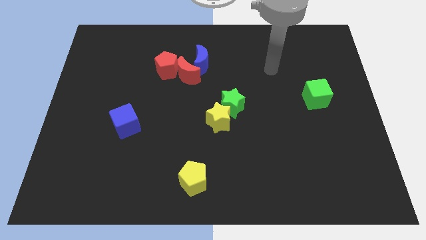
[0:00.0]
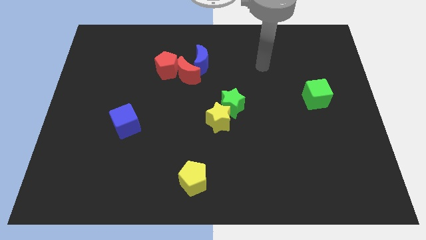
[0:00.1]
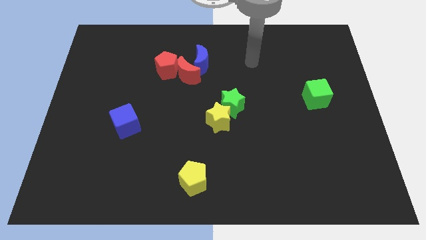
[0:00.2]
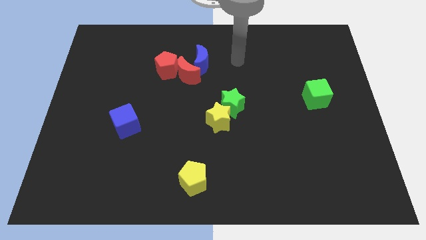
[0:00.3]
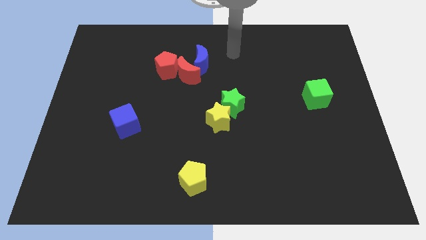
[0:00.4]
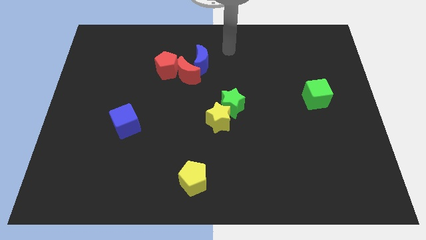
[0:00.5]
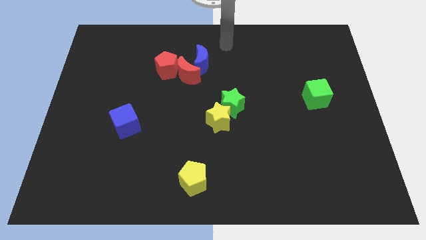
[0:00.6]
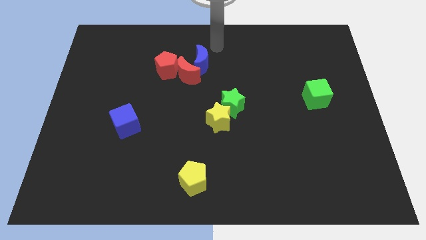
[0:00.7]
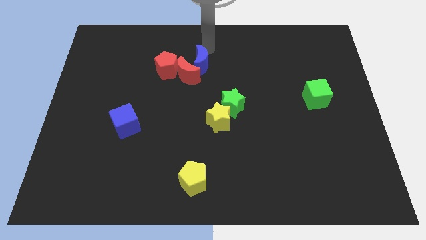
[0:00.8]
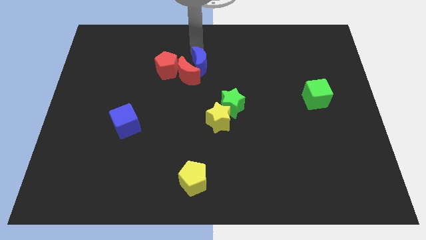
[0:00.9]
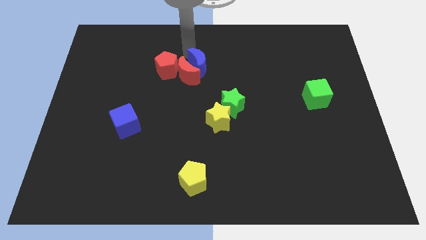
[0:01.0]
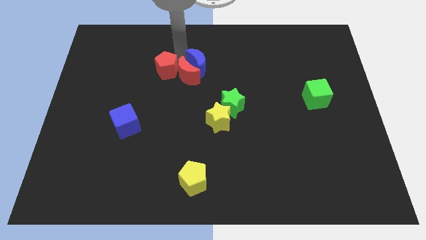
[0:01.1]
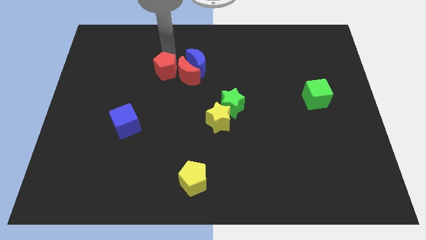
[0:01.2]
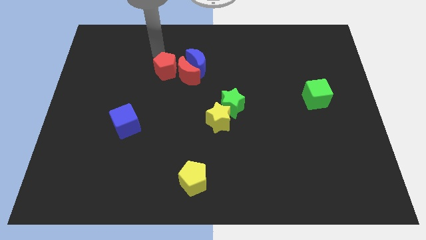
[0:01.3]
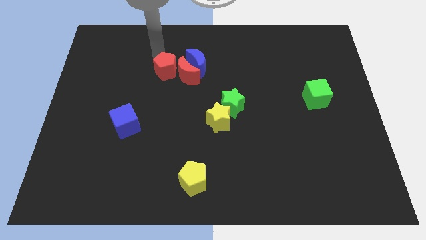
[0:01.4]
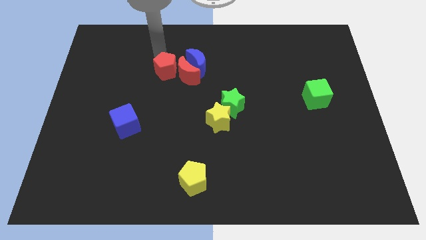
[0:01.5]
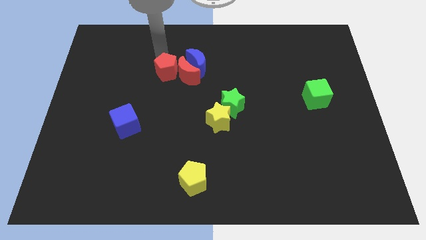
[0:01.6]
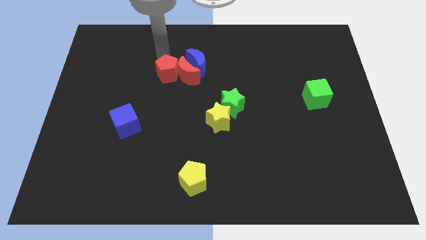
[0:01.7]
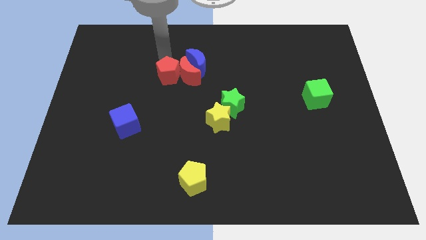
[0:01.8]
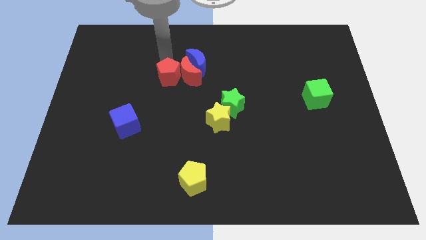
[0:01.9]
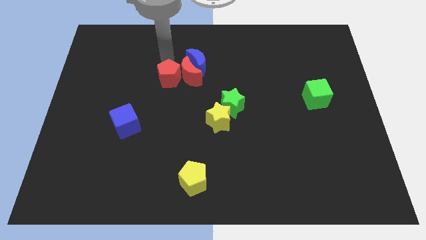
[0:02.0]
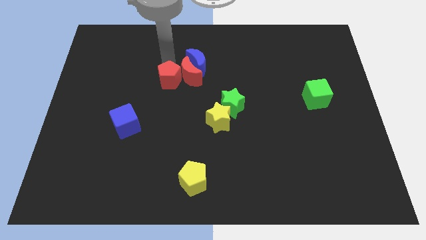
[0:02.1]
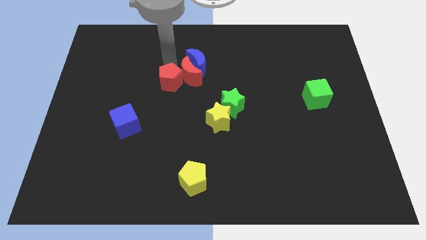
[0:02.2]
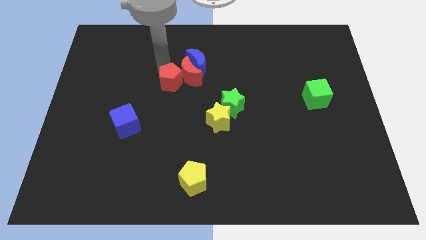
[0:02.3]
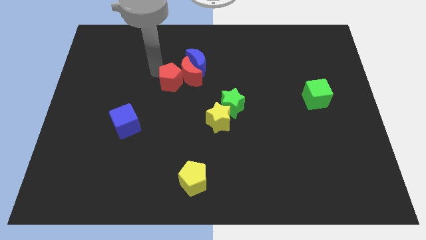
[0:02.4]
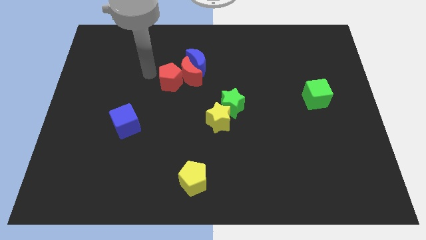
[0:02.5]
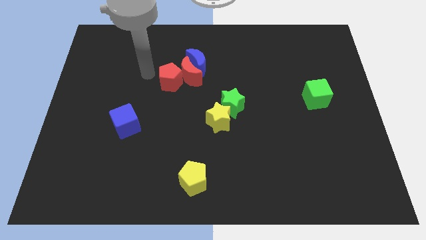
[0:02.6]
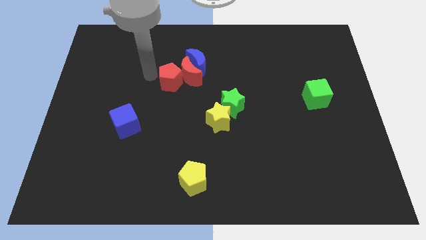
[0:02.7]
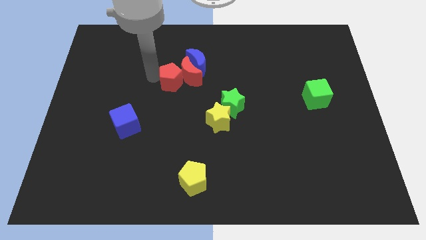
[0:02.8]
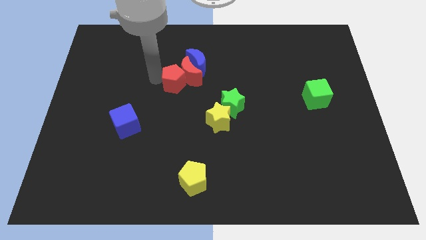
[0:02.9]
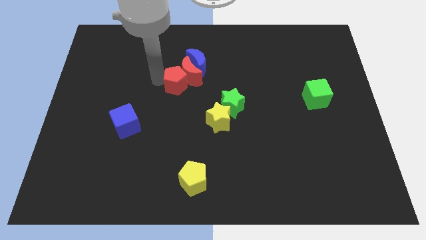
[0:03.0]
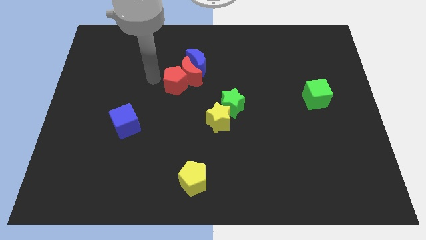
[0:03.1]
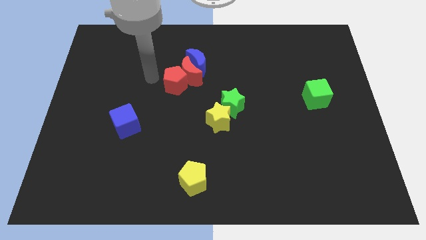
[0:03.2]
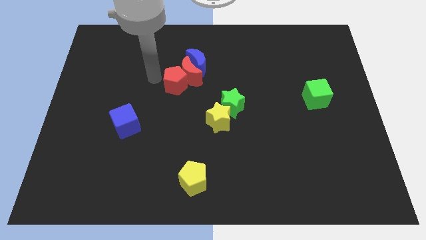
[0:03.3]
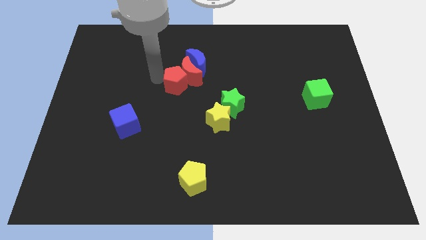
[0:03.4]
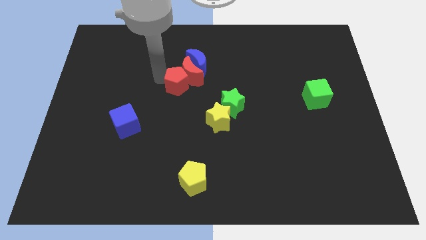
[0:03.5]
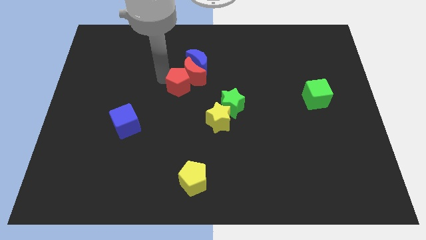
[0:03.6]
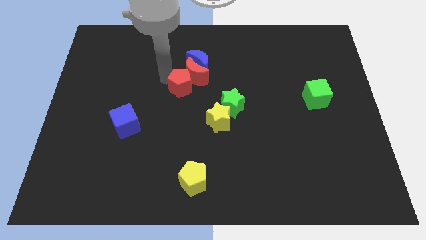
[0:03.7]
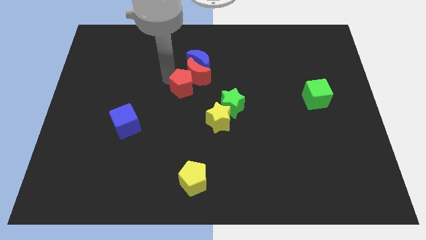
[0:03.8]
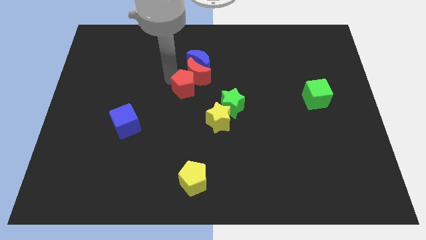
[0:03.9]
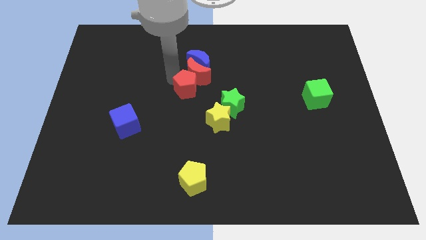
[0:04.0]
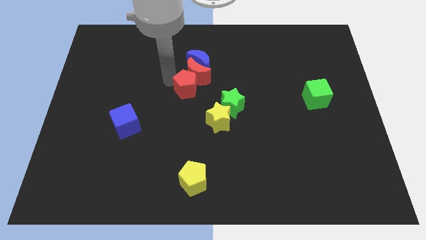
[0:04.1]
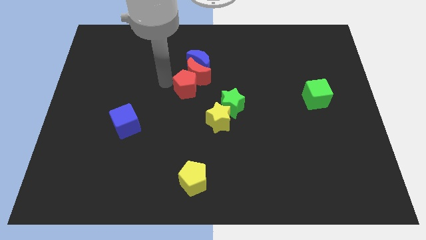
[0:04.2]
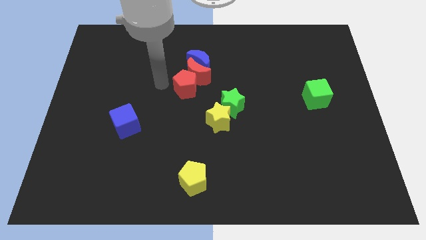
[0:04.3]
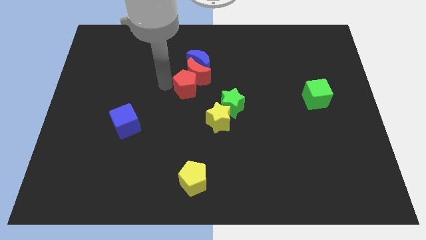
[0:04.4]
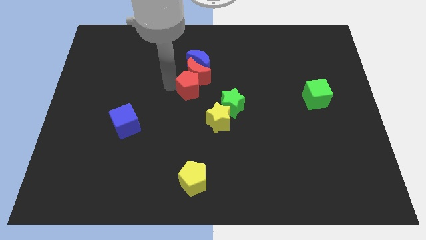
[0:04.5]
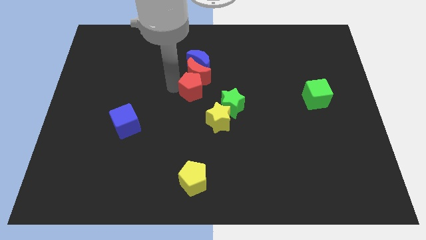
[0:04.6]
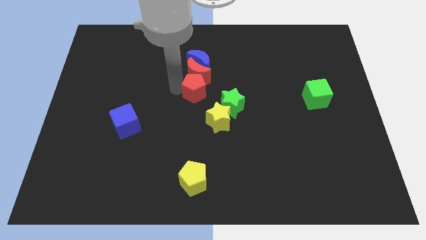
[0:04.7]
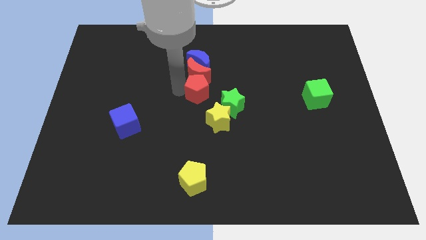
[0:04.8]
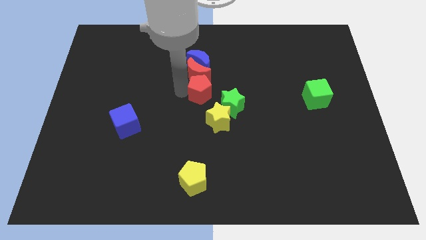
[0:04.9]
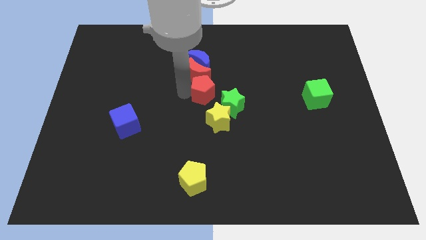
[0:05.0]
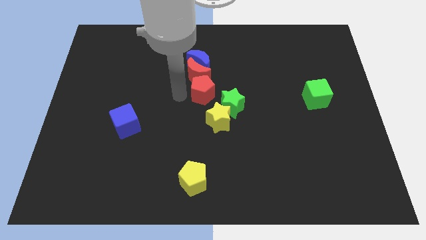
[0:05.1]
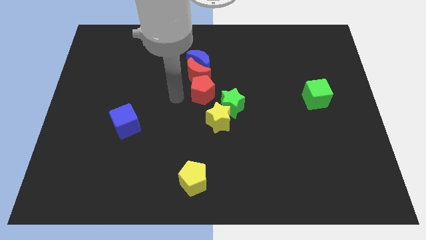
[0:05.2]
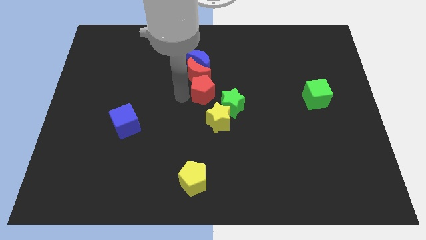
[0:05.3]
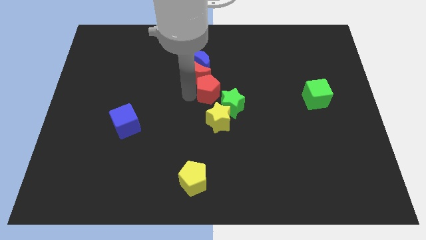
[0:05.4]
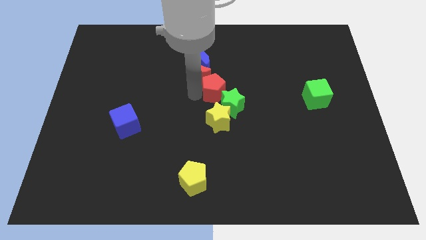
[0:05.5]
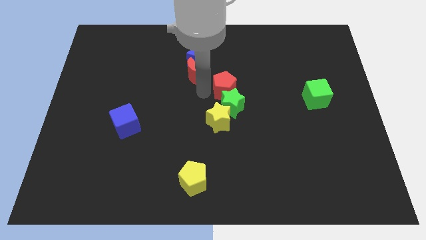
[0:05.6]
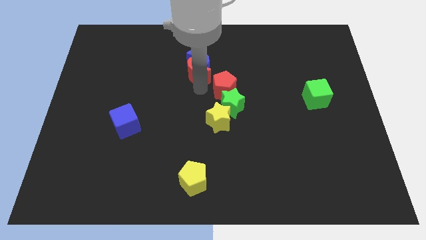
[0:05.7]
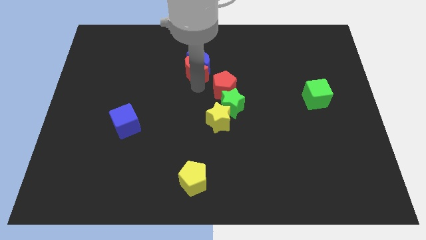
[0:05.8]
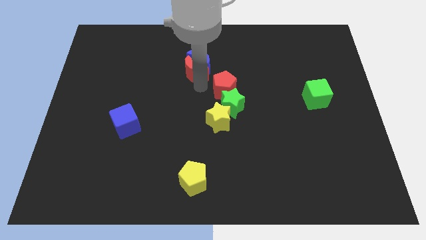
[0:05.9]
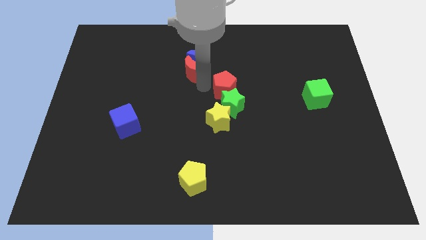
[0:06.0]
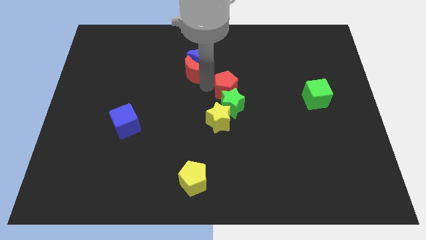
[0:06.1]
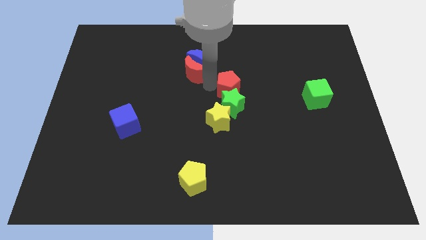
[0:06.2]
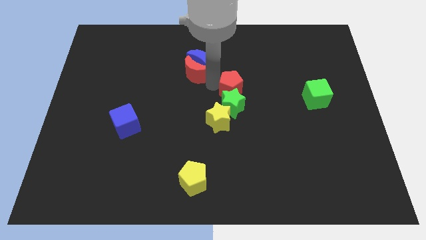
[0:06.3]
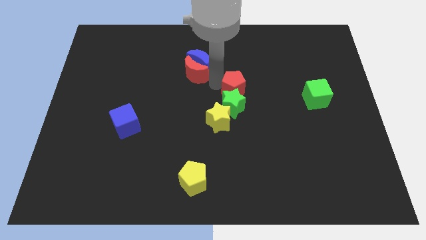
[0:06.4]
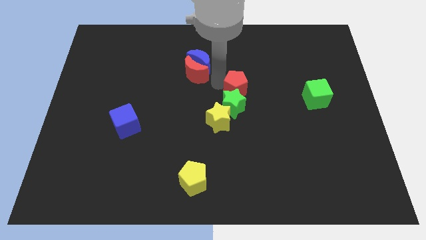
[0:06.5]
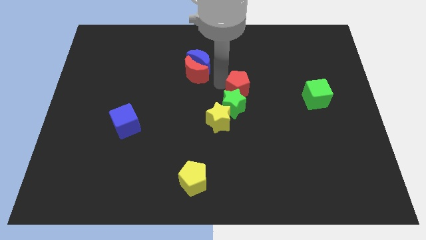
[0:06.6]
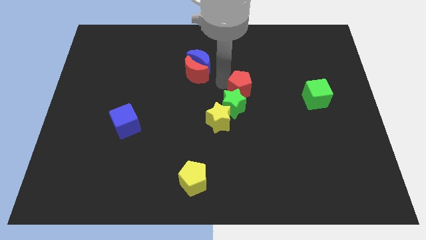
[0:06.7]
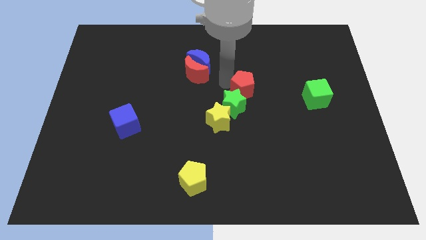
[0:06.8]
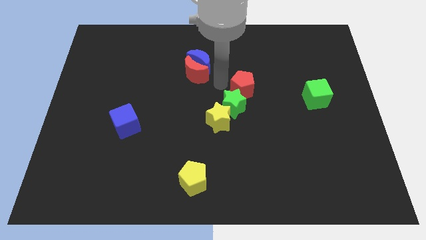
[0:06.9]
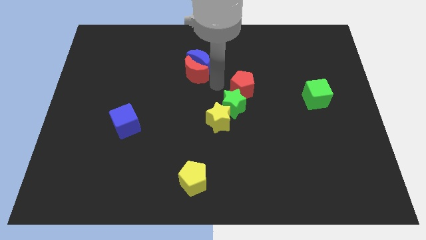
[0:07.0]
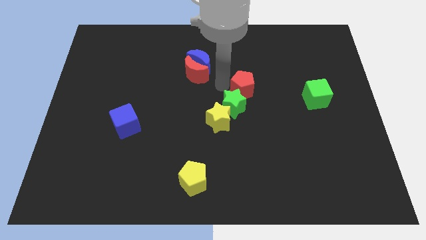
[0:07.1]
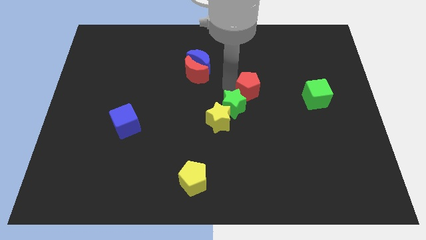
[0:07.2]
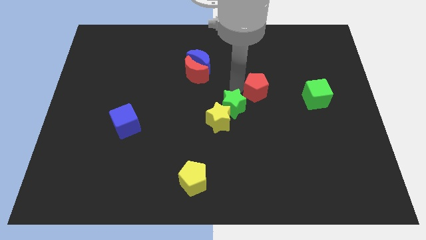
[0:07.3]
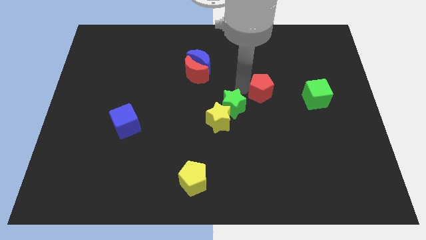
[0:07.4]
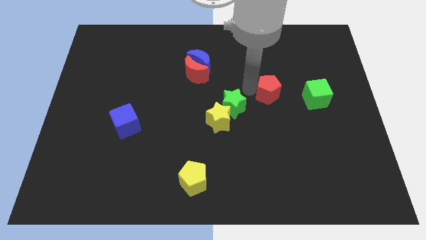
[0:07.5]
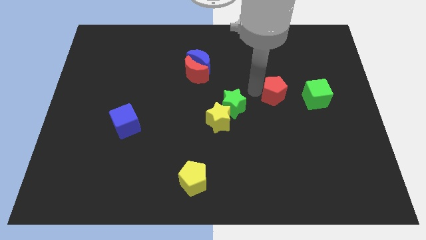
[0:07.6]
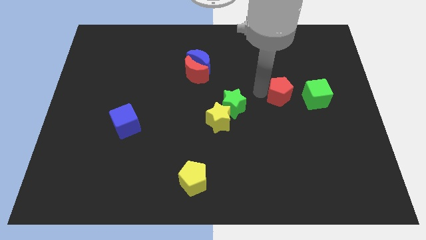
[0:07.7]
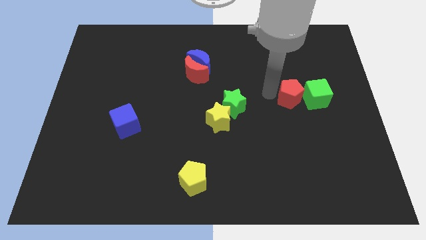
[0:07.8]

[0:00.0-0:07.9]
move the red pentagon to the green cube
